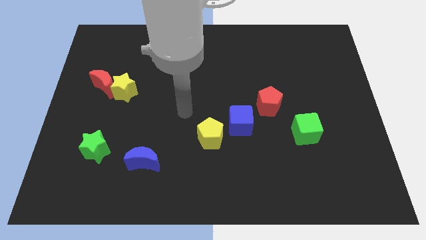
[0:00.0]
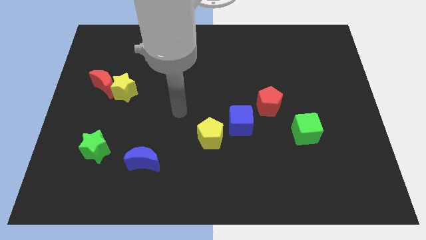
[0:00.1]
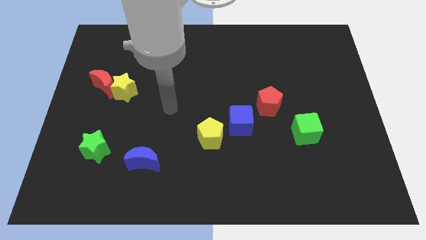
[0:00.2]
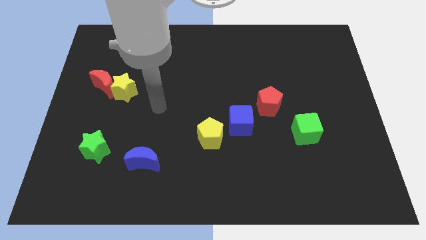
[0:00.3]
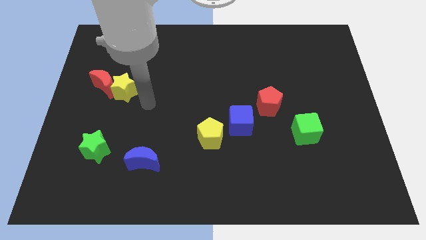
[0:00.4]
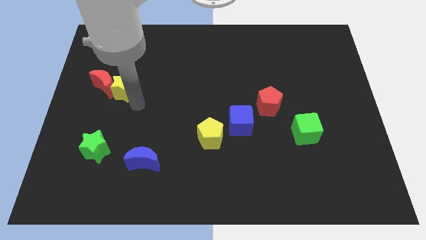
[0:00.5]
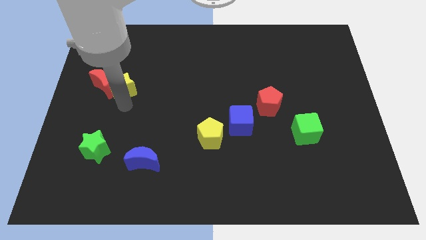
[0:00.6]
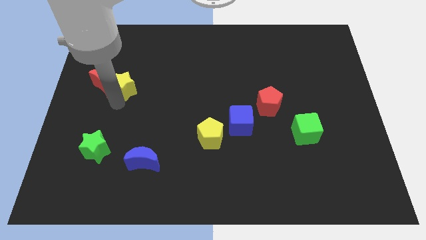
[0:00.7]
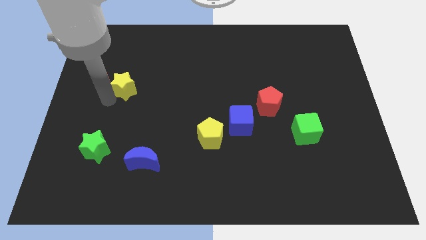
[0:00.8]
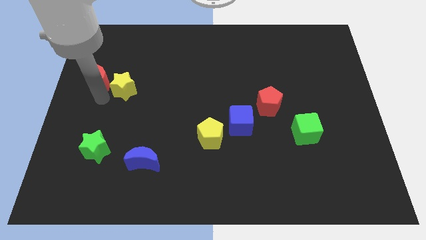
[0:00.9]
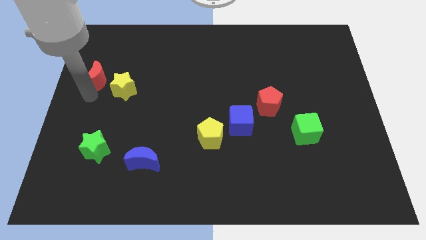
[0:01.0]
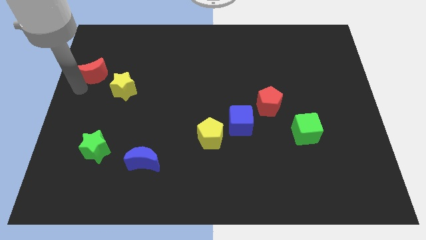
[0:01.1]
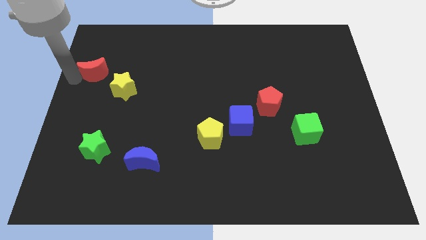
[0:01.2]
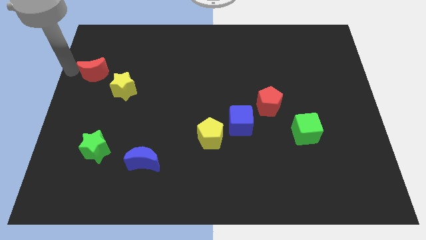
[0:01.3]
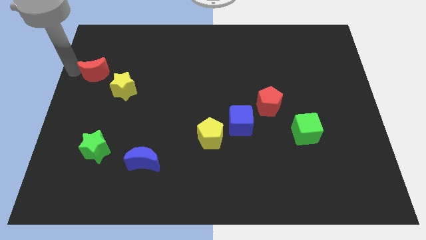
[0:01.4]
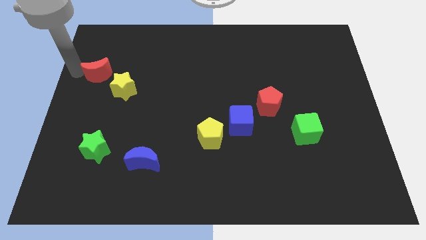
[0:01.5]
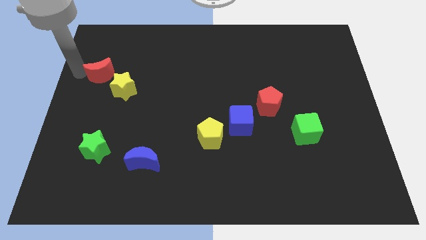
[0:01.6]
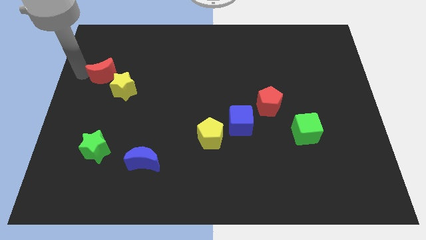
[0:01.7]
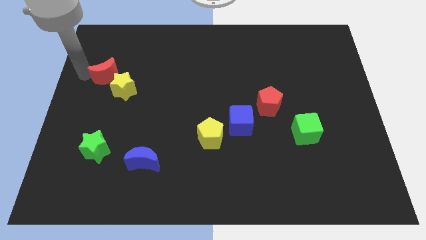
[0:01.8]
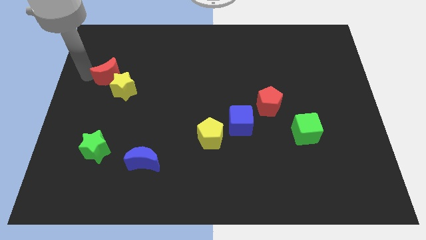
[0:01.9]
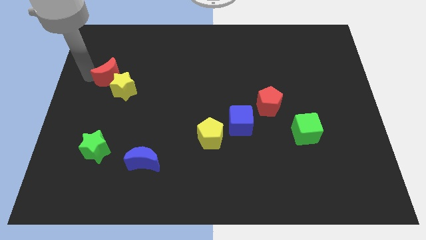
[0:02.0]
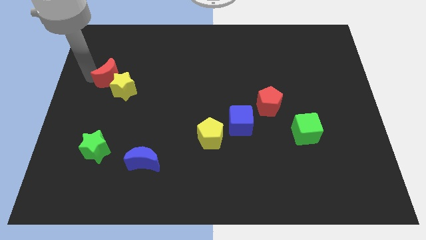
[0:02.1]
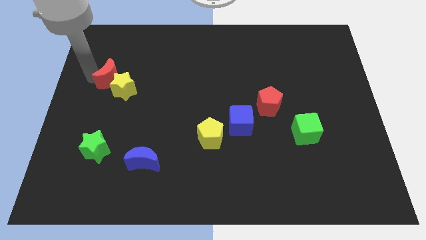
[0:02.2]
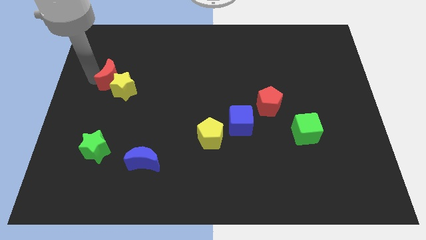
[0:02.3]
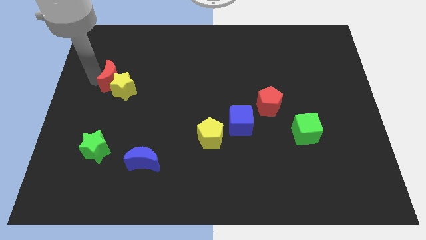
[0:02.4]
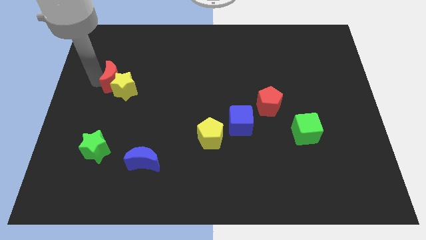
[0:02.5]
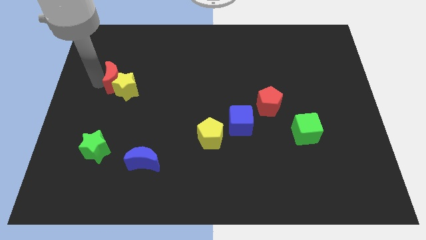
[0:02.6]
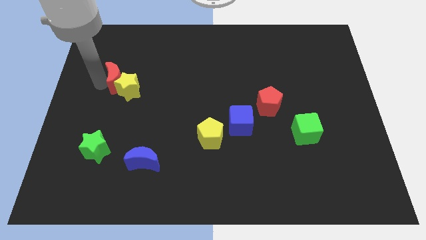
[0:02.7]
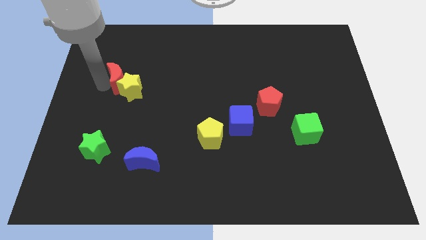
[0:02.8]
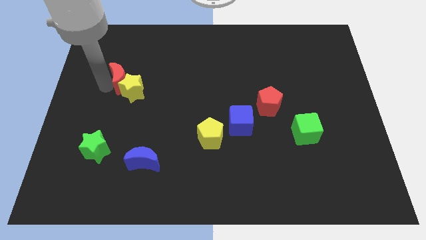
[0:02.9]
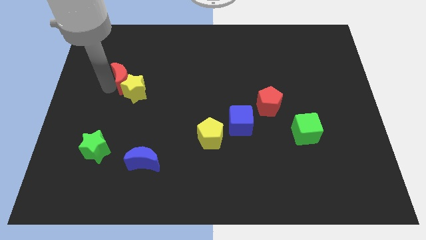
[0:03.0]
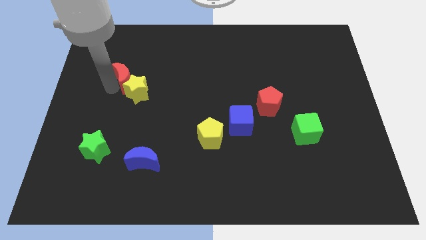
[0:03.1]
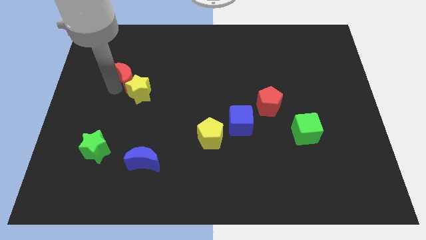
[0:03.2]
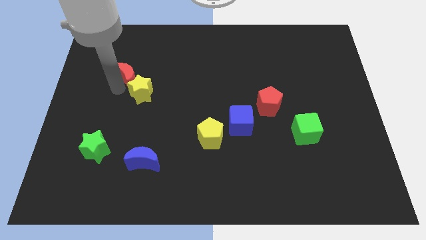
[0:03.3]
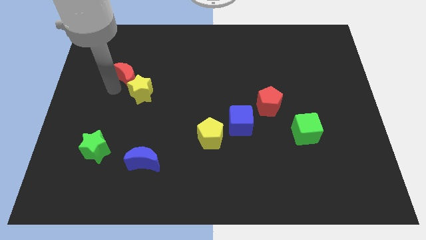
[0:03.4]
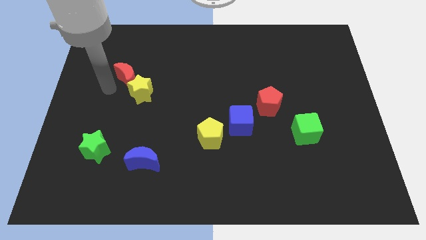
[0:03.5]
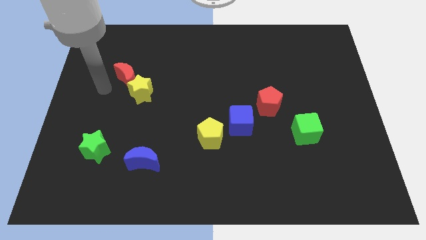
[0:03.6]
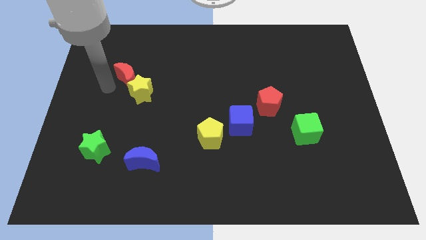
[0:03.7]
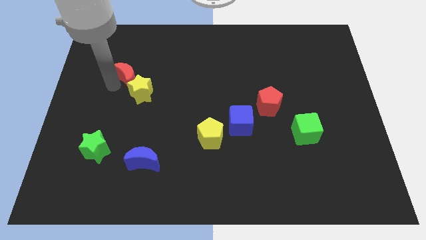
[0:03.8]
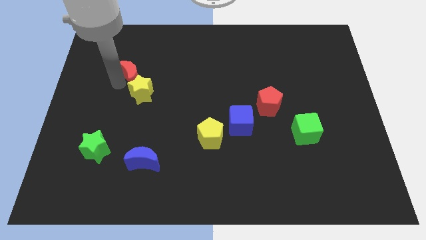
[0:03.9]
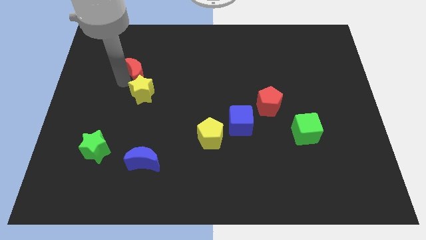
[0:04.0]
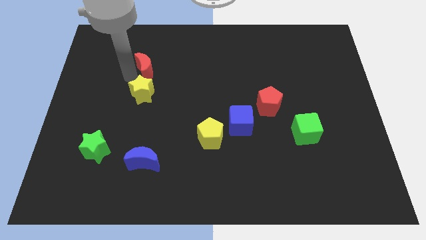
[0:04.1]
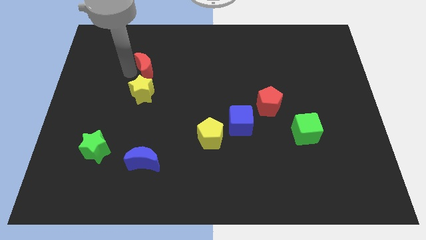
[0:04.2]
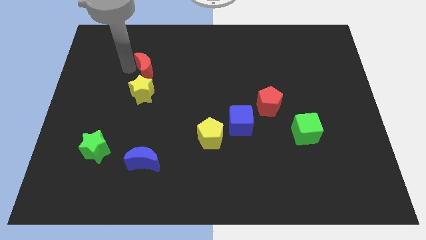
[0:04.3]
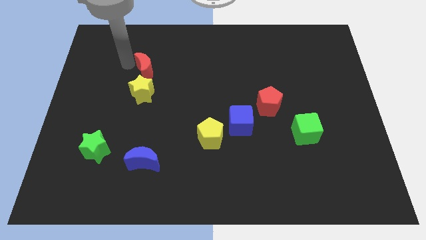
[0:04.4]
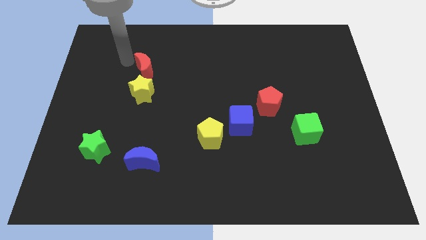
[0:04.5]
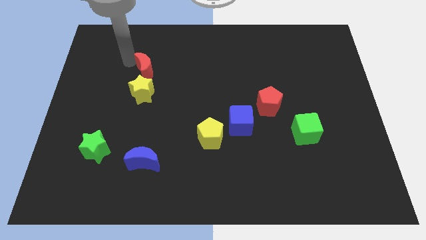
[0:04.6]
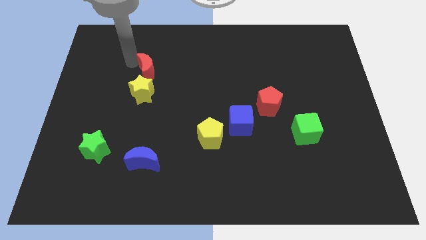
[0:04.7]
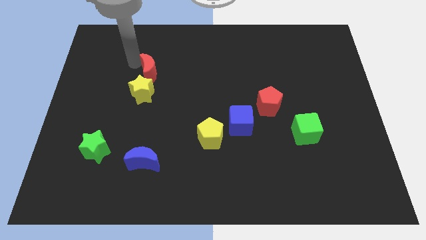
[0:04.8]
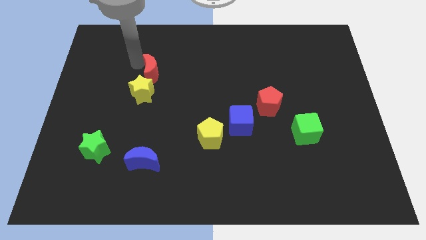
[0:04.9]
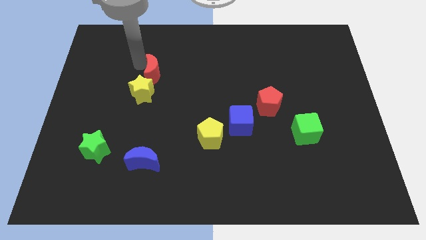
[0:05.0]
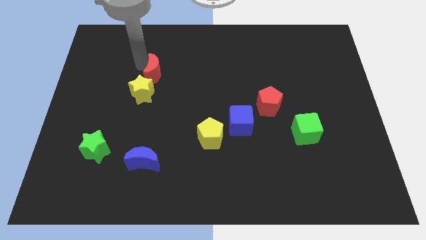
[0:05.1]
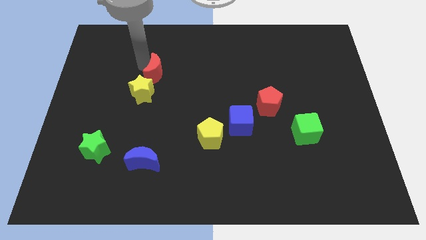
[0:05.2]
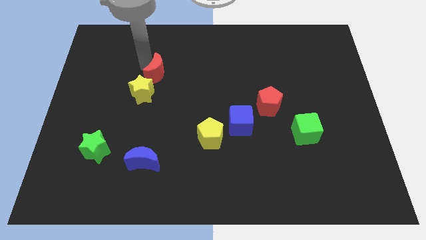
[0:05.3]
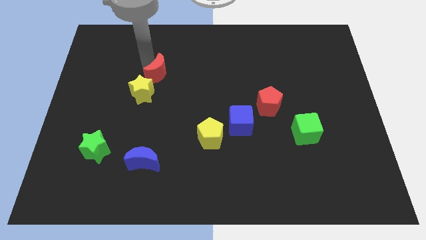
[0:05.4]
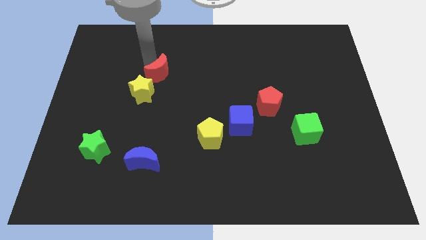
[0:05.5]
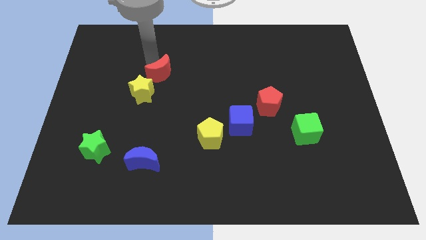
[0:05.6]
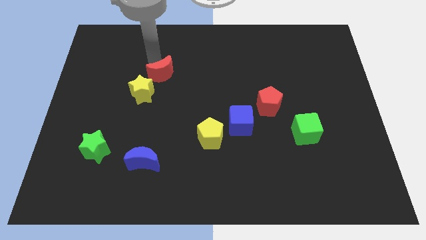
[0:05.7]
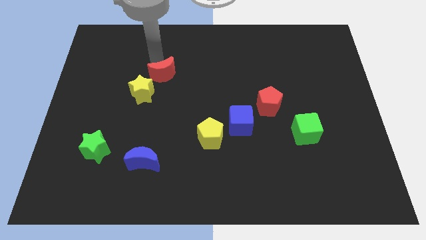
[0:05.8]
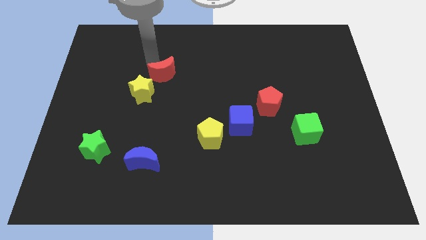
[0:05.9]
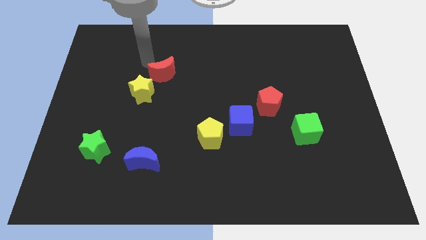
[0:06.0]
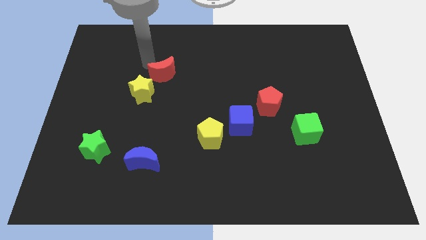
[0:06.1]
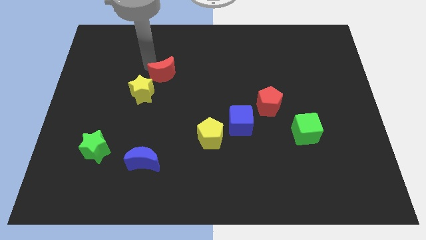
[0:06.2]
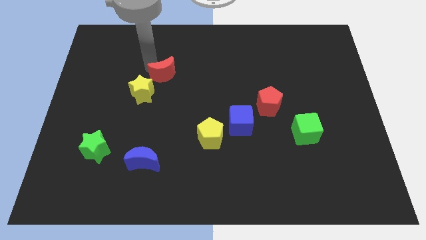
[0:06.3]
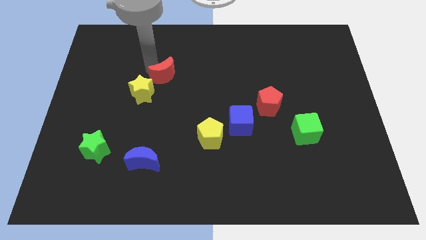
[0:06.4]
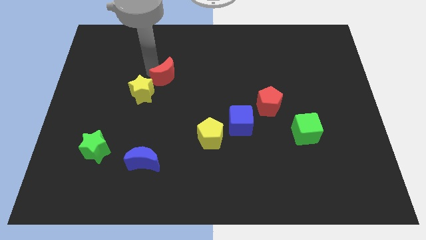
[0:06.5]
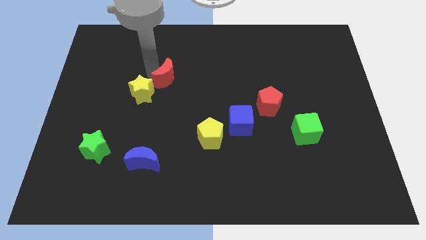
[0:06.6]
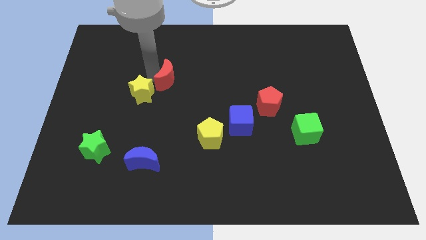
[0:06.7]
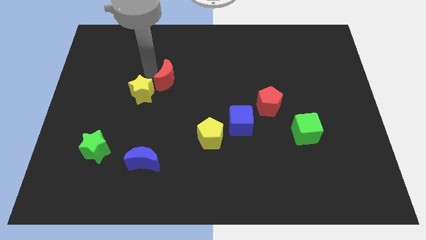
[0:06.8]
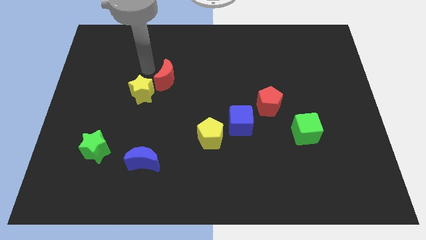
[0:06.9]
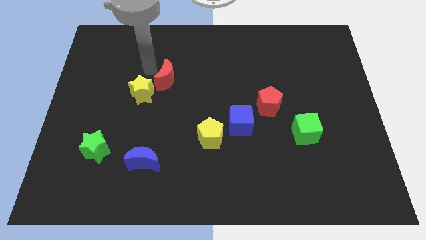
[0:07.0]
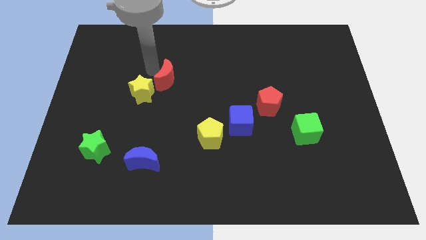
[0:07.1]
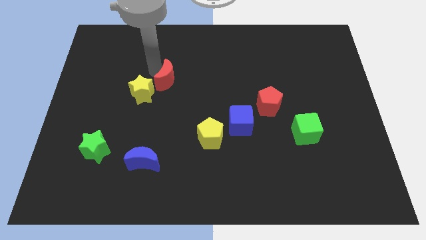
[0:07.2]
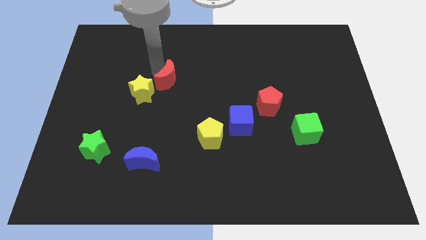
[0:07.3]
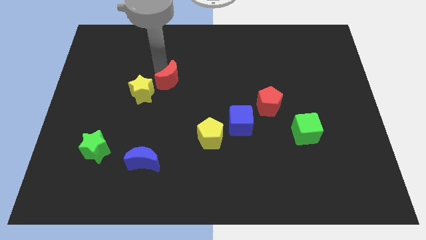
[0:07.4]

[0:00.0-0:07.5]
put the red moon to the middle
